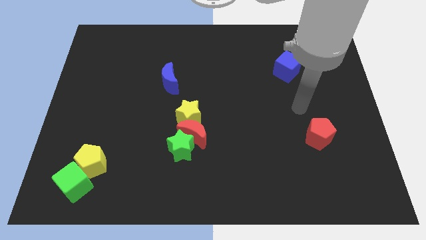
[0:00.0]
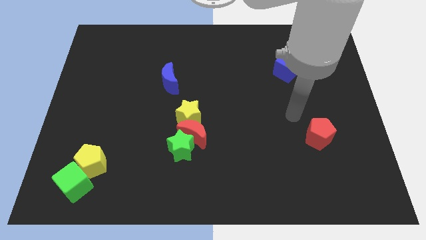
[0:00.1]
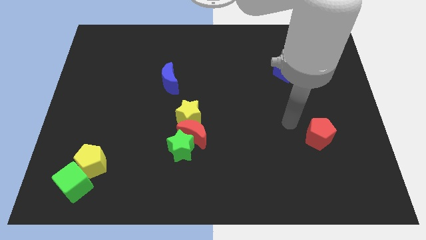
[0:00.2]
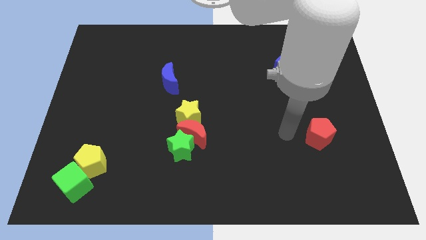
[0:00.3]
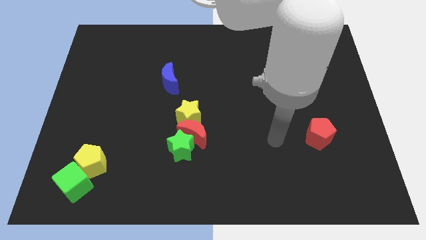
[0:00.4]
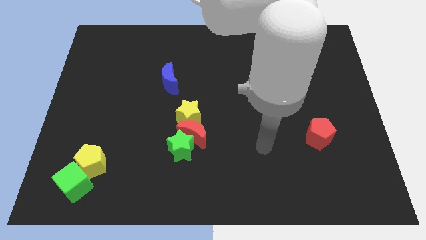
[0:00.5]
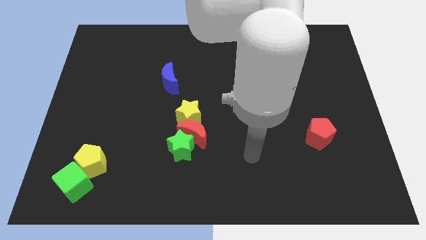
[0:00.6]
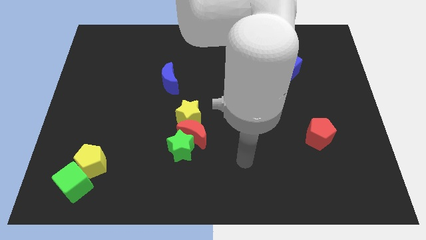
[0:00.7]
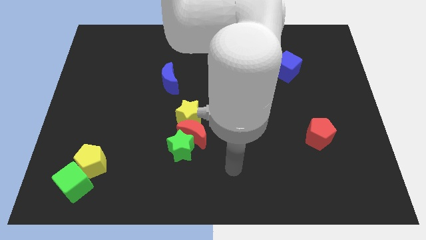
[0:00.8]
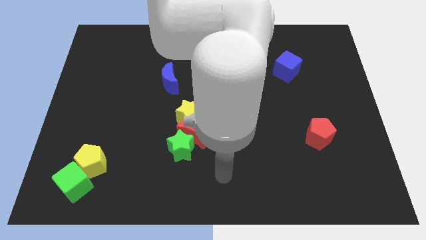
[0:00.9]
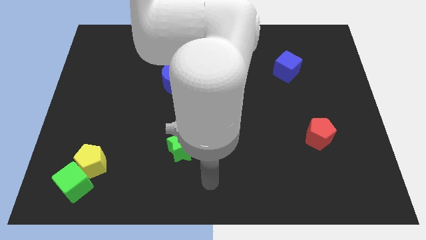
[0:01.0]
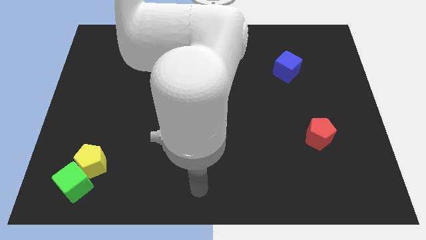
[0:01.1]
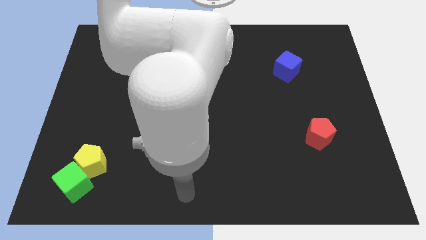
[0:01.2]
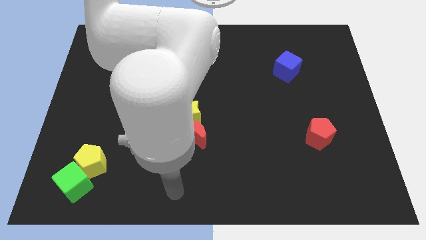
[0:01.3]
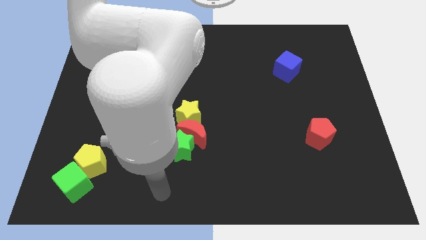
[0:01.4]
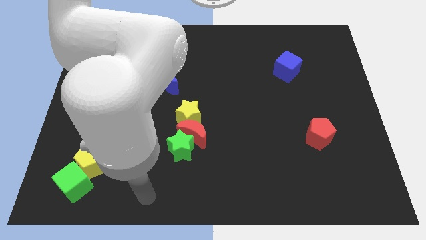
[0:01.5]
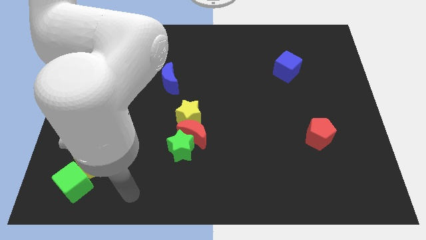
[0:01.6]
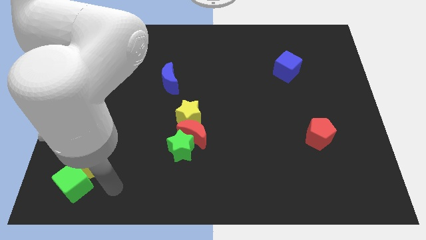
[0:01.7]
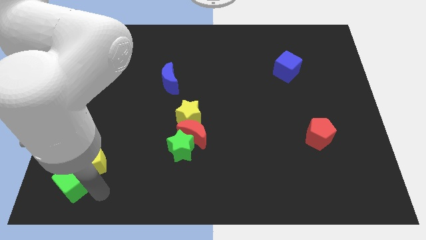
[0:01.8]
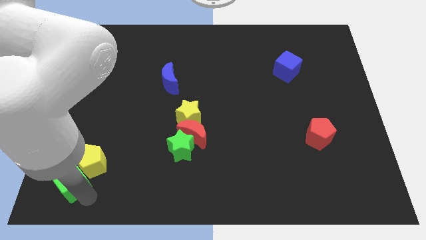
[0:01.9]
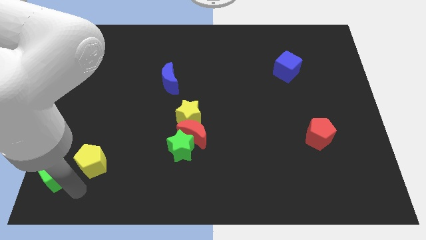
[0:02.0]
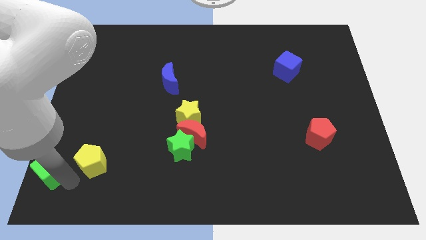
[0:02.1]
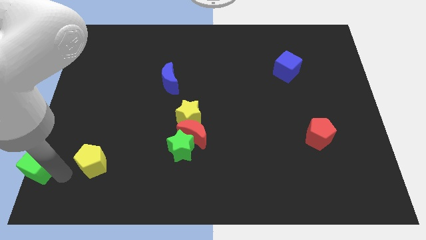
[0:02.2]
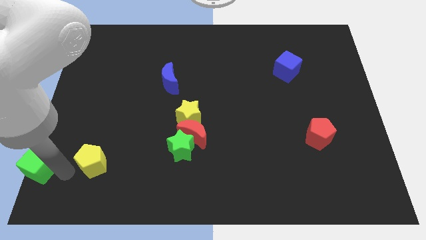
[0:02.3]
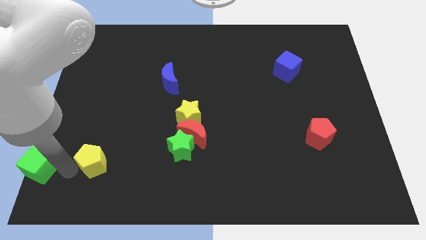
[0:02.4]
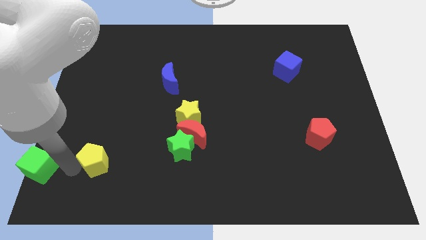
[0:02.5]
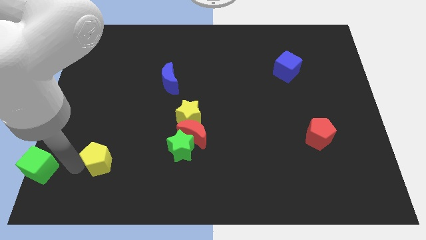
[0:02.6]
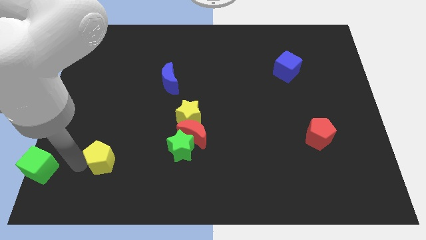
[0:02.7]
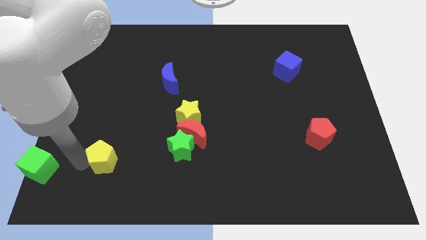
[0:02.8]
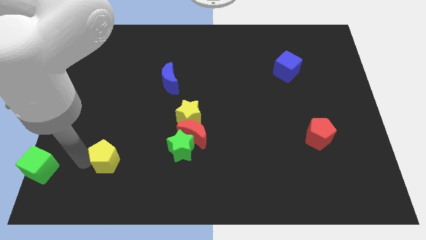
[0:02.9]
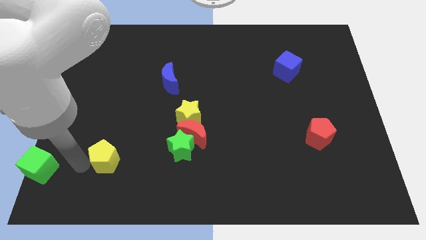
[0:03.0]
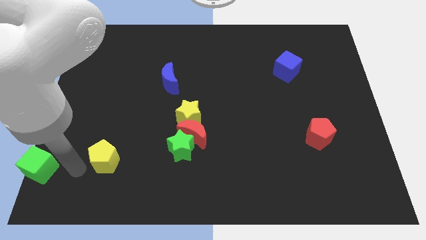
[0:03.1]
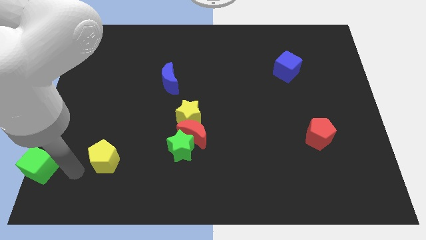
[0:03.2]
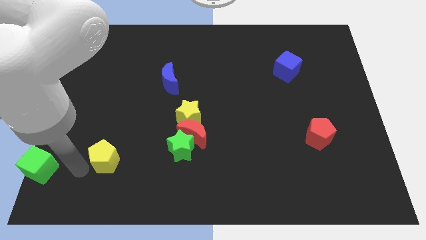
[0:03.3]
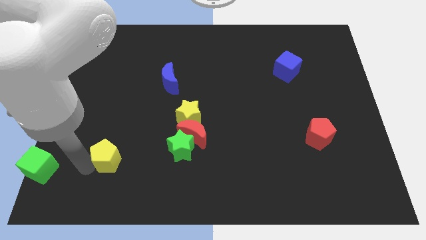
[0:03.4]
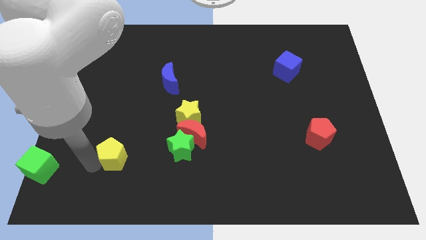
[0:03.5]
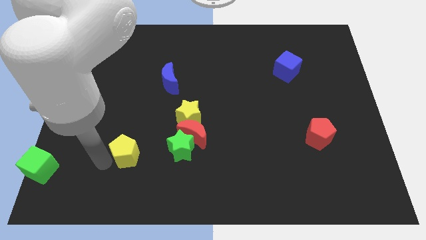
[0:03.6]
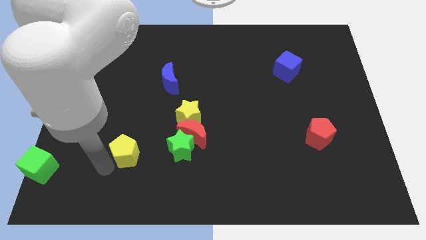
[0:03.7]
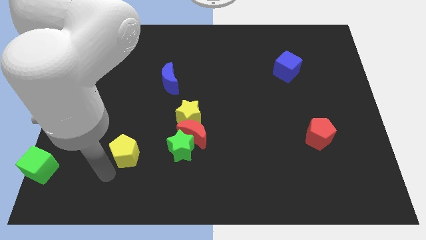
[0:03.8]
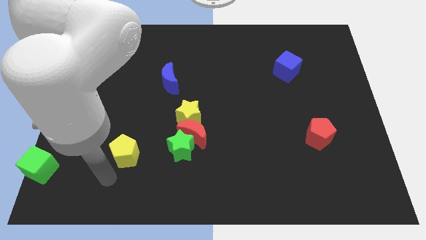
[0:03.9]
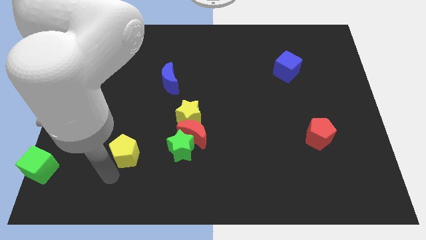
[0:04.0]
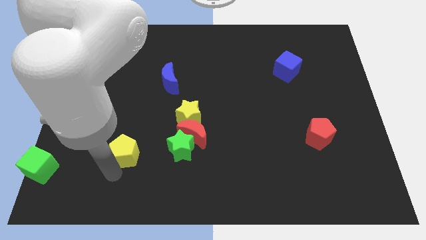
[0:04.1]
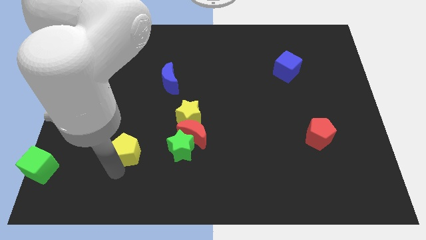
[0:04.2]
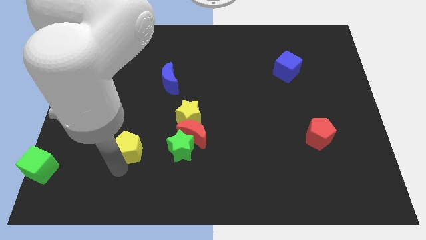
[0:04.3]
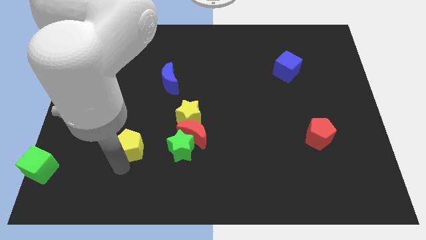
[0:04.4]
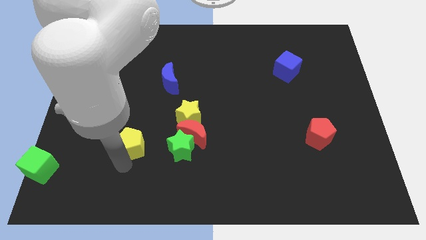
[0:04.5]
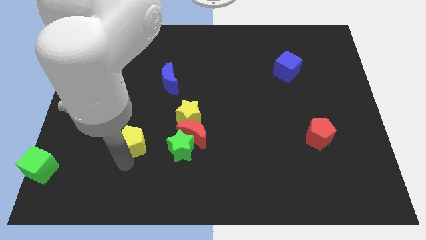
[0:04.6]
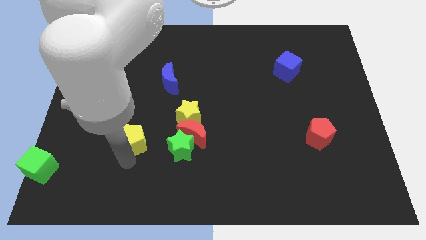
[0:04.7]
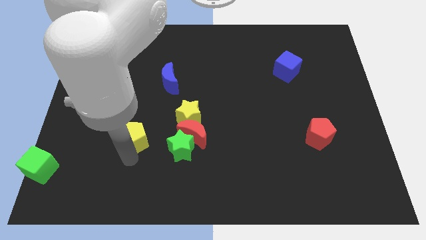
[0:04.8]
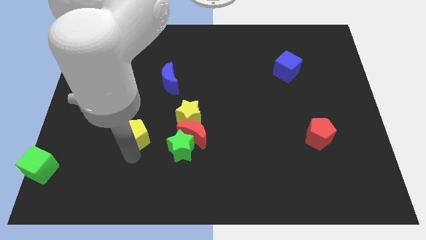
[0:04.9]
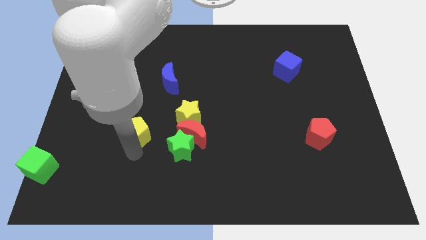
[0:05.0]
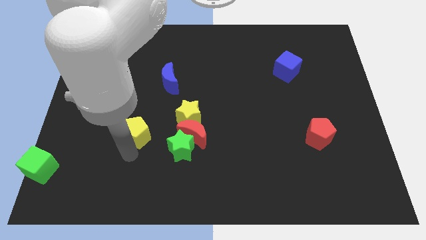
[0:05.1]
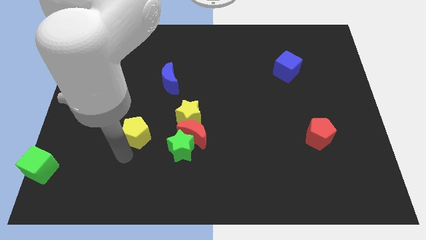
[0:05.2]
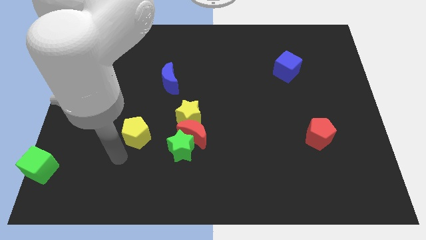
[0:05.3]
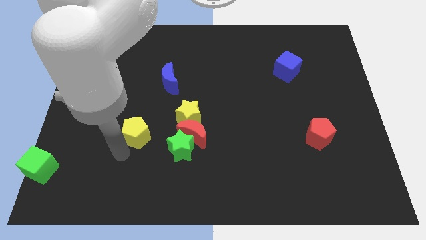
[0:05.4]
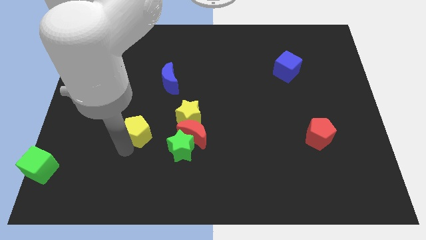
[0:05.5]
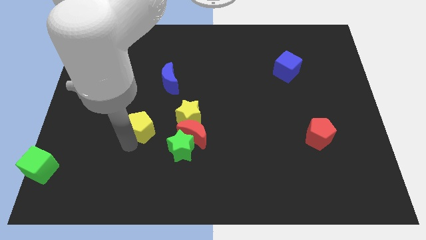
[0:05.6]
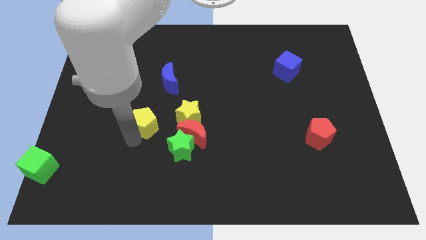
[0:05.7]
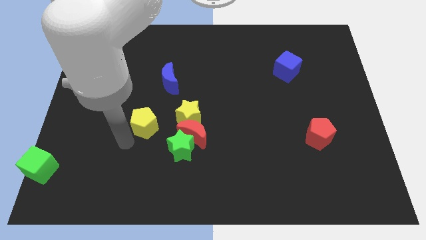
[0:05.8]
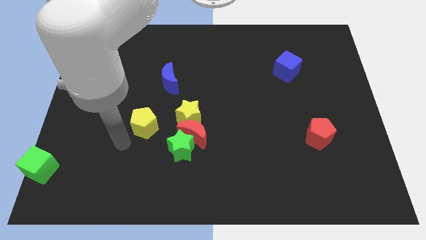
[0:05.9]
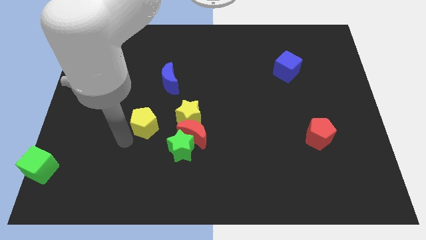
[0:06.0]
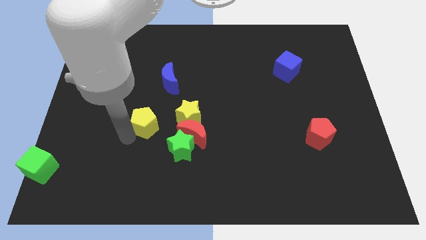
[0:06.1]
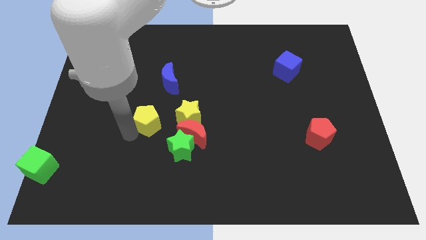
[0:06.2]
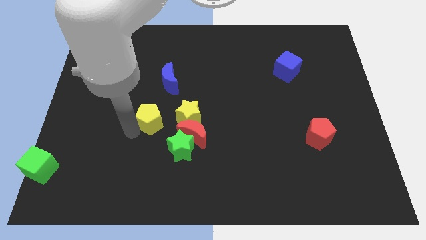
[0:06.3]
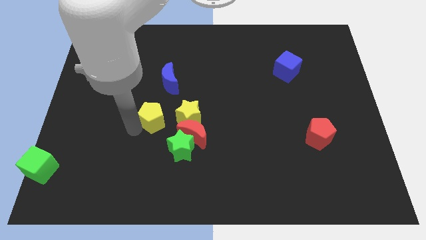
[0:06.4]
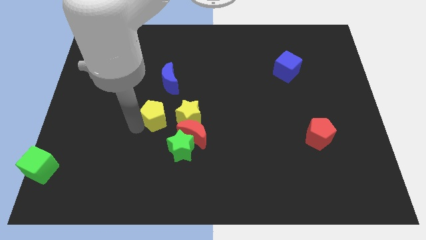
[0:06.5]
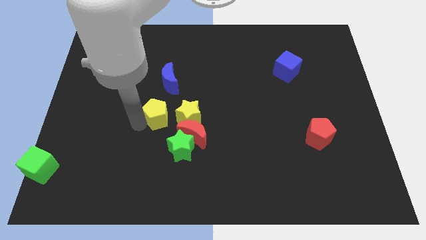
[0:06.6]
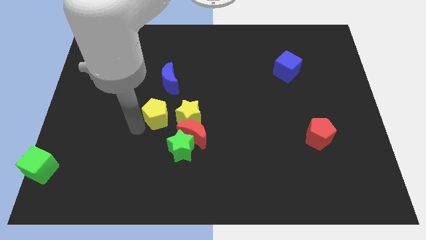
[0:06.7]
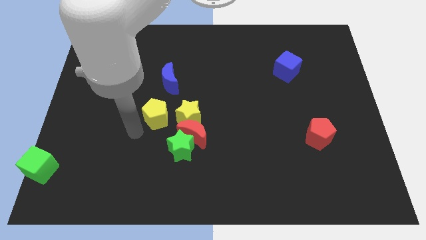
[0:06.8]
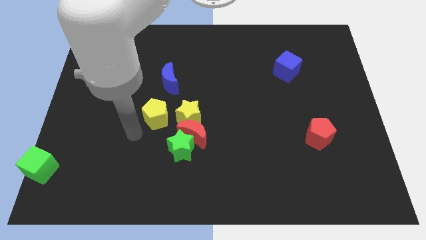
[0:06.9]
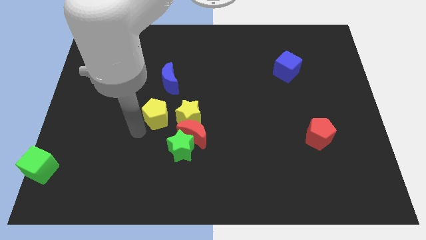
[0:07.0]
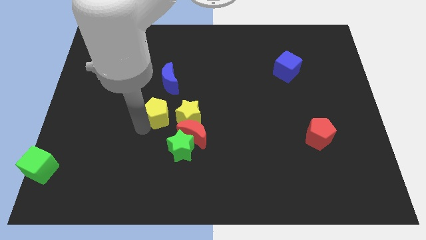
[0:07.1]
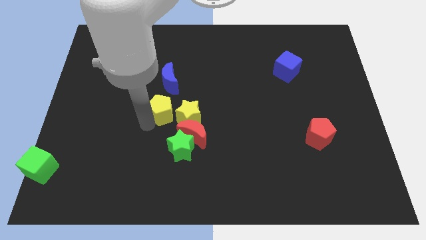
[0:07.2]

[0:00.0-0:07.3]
push the yellow pentagon to the center
